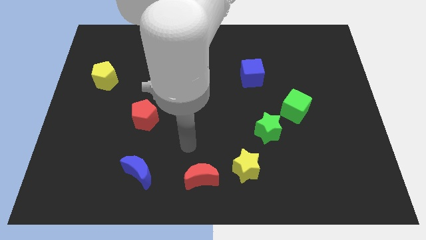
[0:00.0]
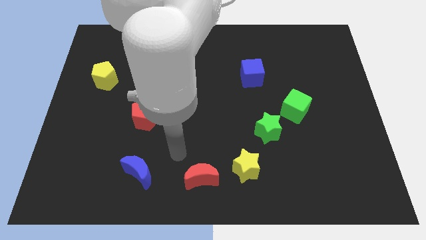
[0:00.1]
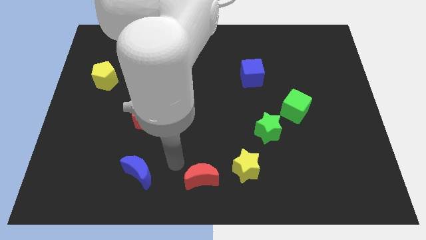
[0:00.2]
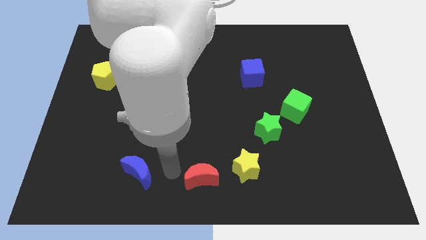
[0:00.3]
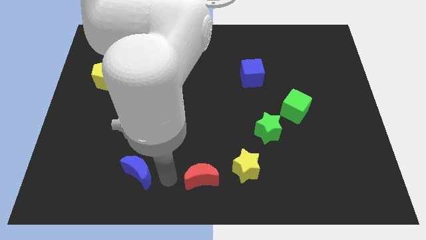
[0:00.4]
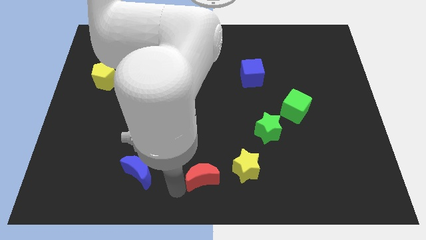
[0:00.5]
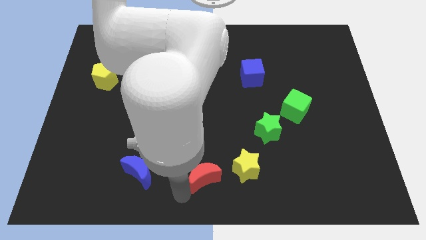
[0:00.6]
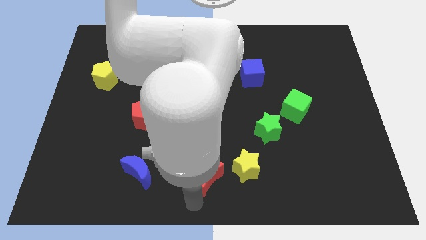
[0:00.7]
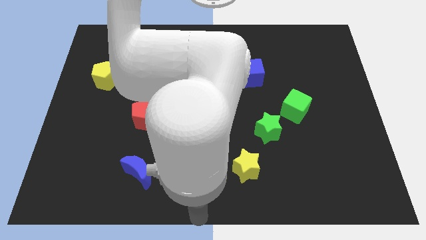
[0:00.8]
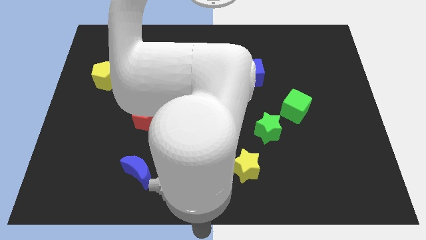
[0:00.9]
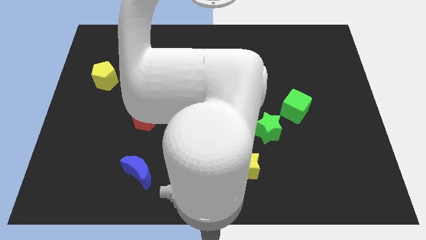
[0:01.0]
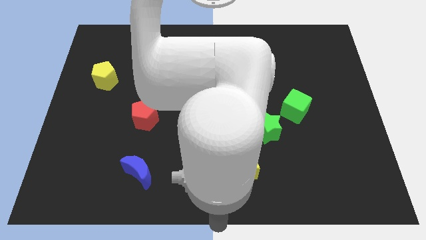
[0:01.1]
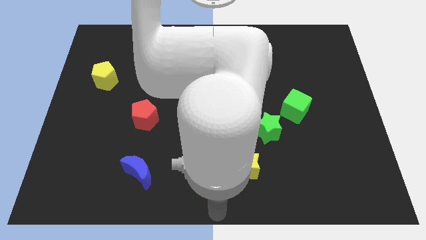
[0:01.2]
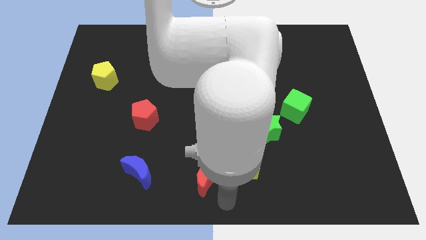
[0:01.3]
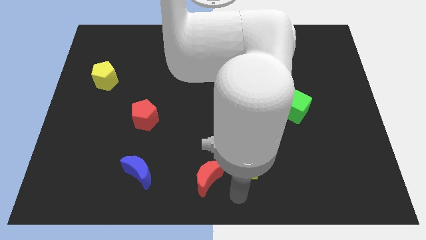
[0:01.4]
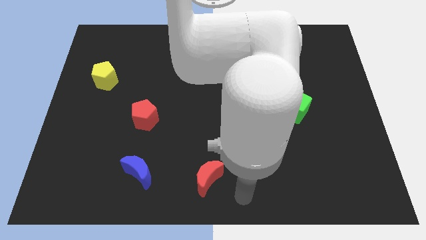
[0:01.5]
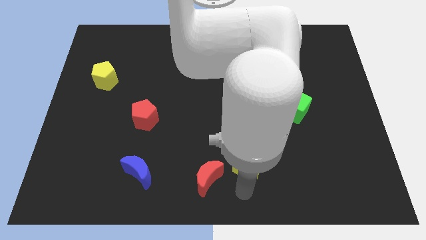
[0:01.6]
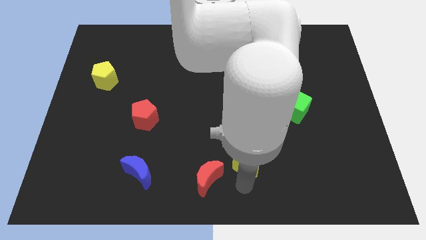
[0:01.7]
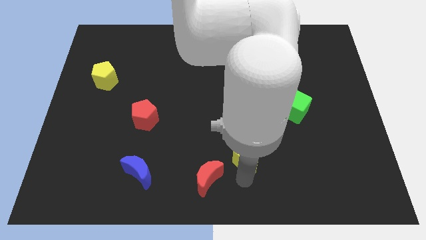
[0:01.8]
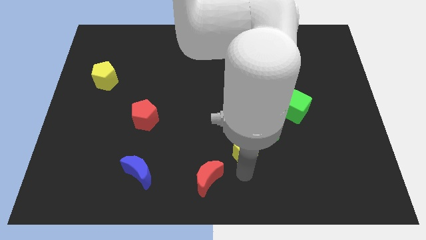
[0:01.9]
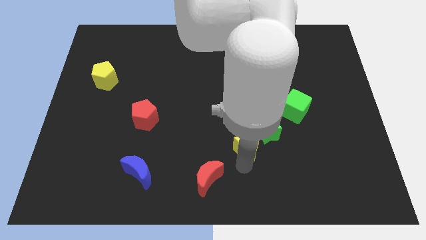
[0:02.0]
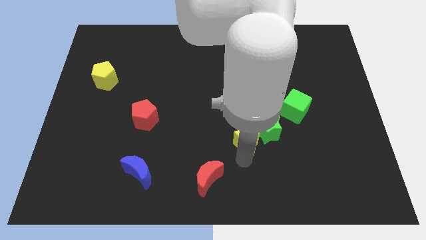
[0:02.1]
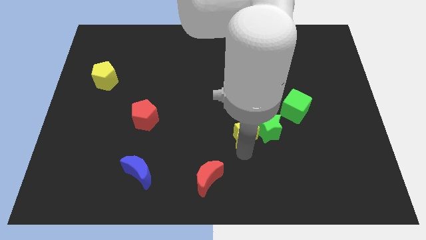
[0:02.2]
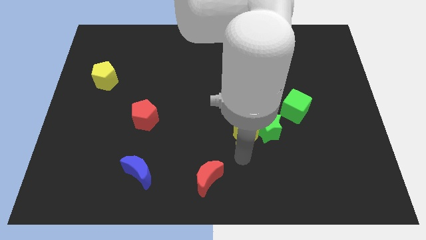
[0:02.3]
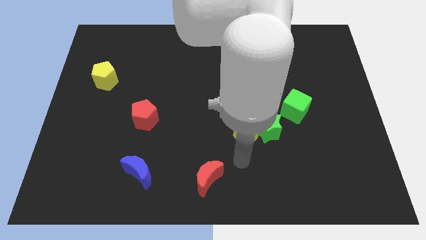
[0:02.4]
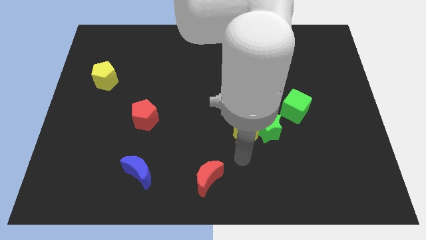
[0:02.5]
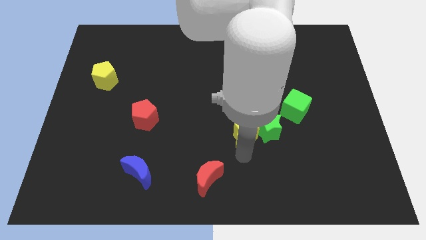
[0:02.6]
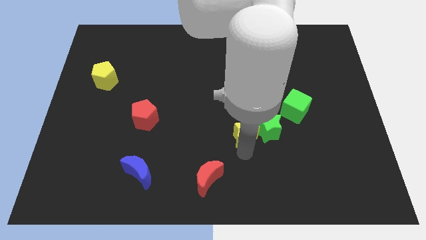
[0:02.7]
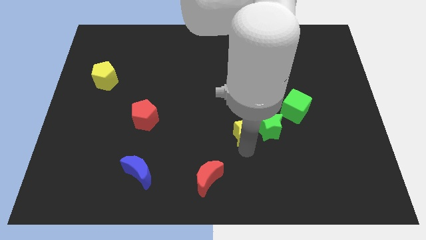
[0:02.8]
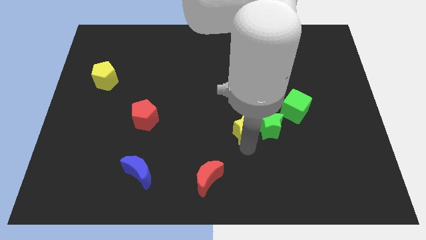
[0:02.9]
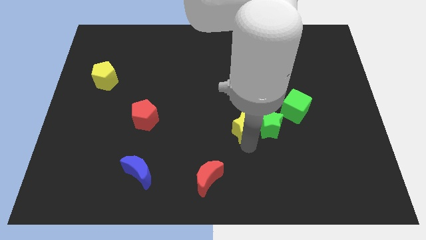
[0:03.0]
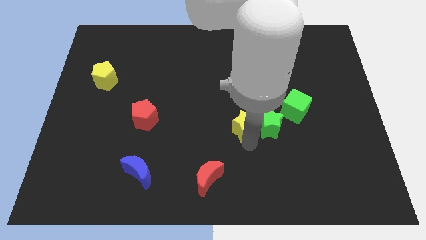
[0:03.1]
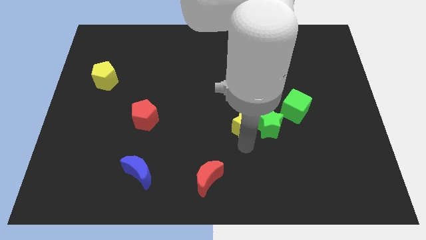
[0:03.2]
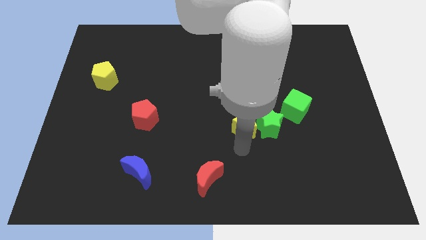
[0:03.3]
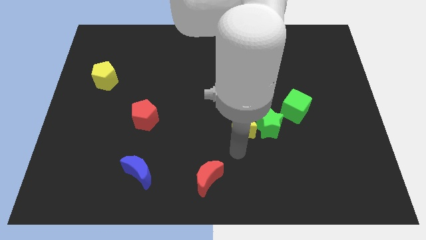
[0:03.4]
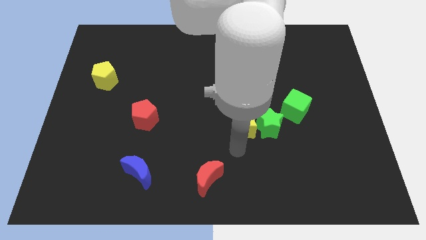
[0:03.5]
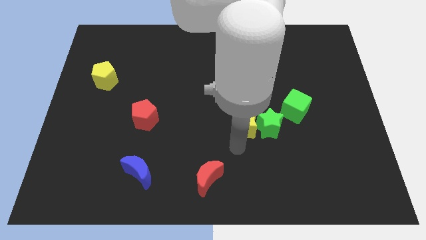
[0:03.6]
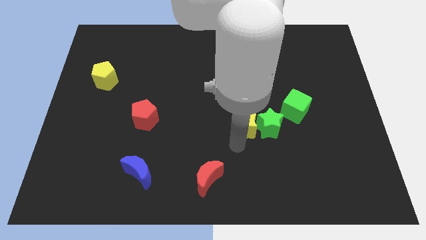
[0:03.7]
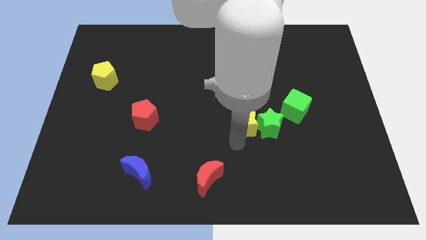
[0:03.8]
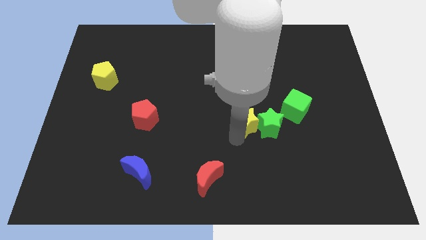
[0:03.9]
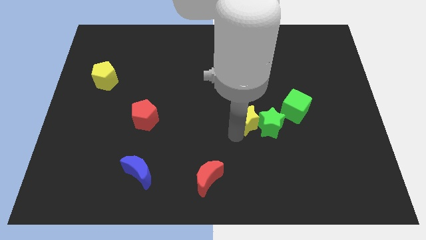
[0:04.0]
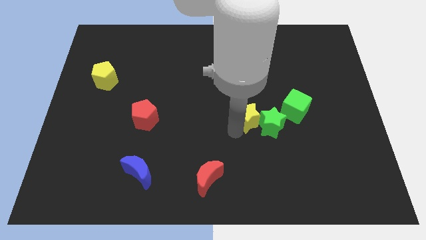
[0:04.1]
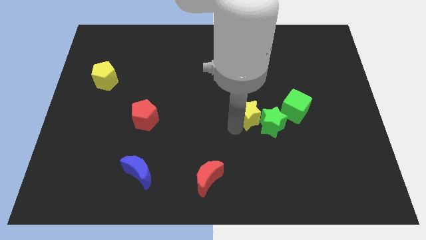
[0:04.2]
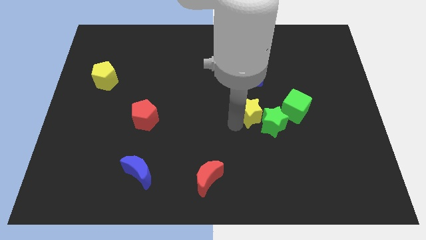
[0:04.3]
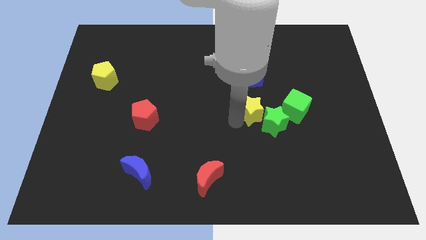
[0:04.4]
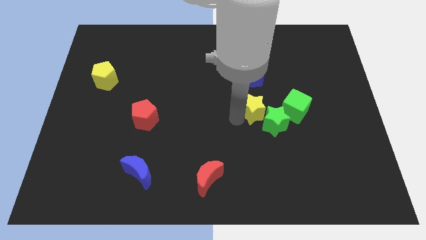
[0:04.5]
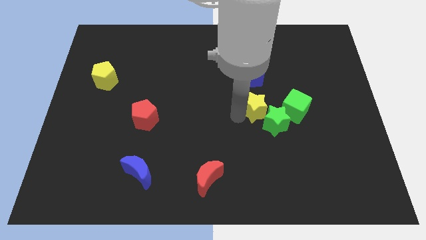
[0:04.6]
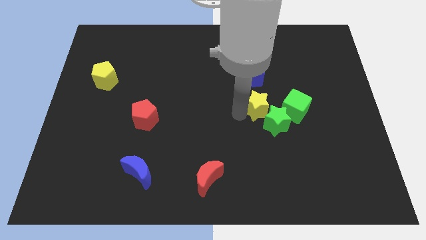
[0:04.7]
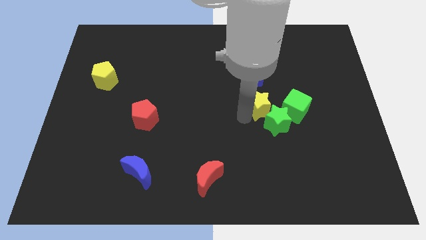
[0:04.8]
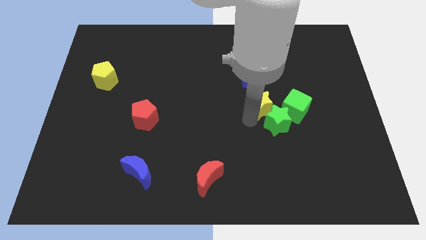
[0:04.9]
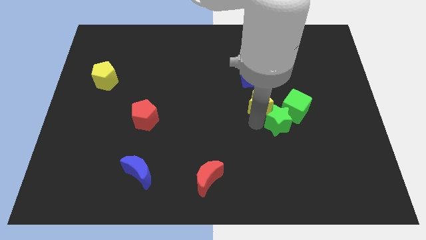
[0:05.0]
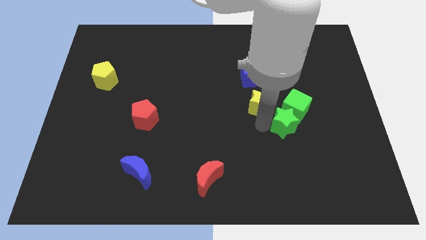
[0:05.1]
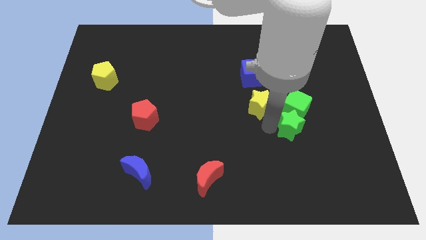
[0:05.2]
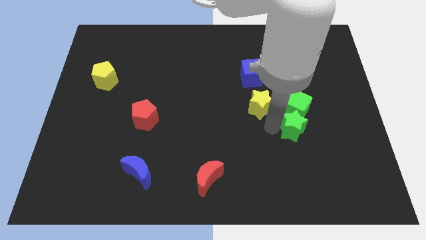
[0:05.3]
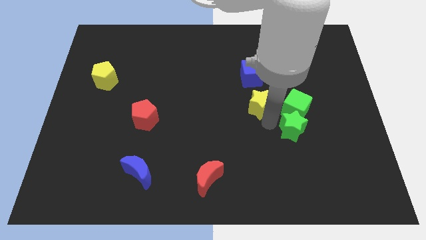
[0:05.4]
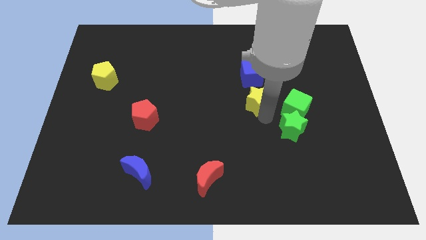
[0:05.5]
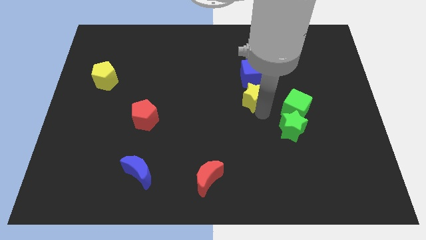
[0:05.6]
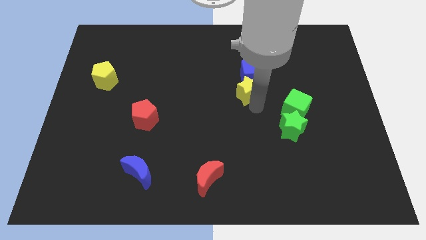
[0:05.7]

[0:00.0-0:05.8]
move the yellow star towards the blue cube
